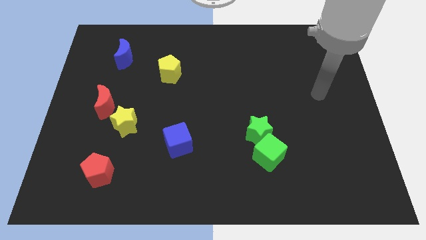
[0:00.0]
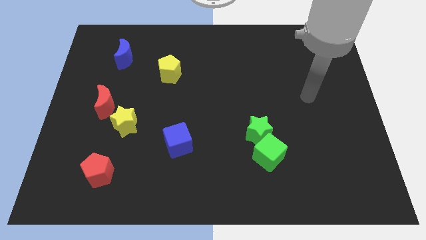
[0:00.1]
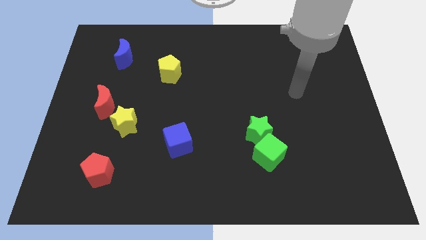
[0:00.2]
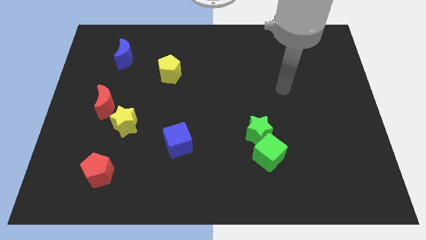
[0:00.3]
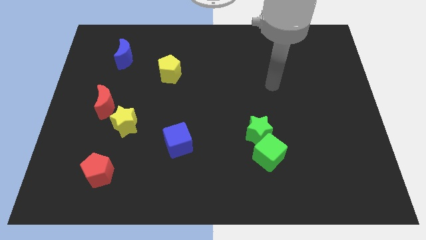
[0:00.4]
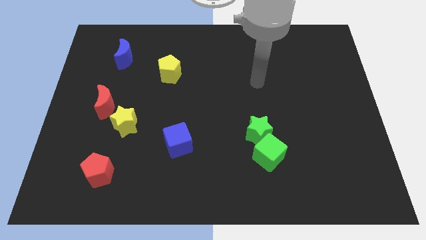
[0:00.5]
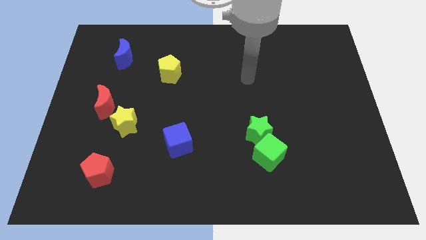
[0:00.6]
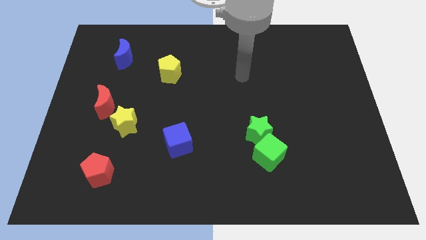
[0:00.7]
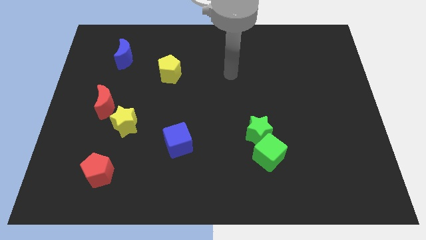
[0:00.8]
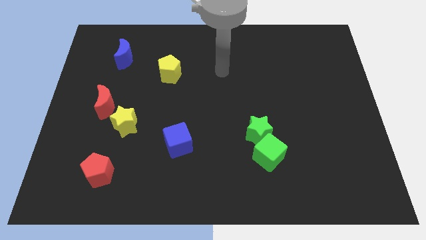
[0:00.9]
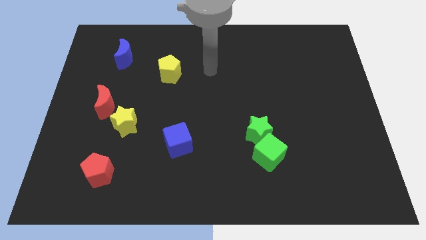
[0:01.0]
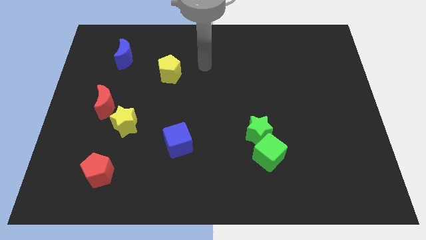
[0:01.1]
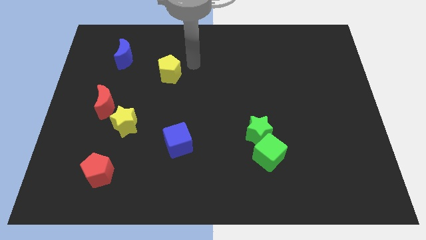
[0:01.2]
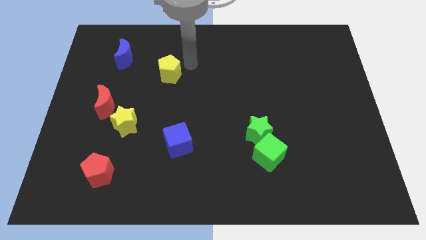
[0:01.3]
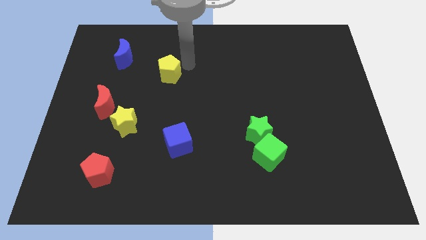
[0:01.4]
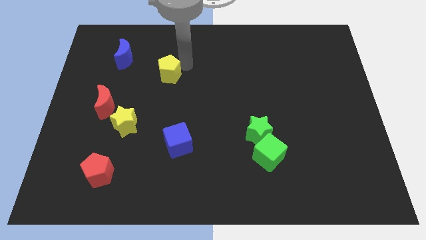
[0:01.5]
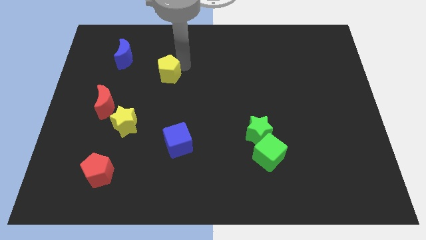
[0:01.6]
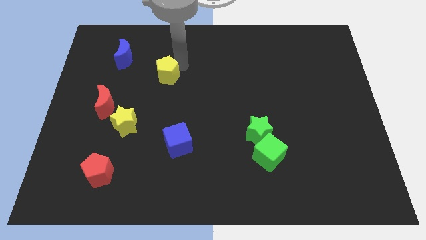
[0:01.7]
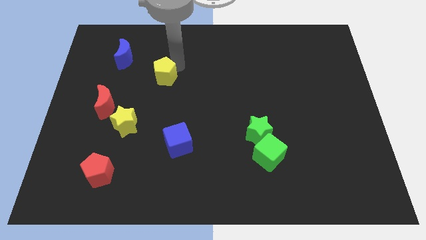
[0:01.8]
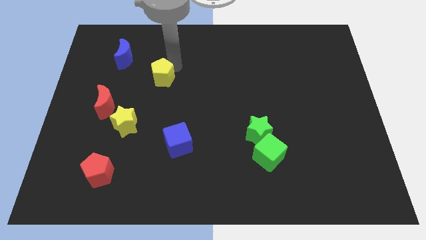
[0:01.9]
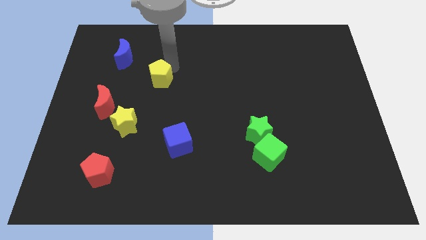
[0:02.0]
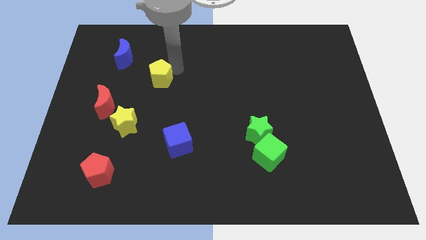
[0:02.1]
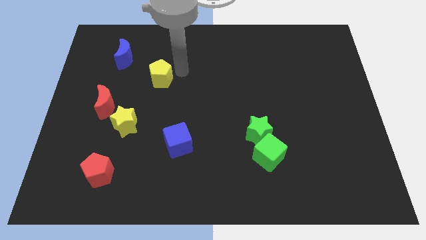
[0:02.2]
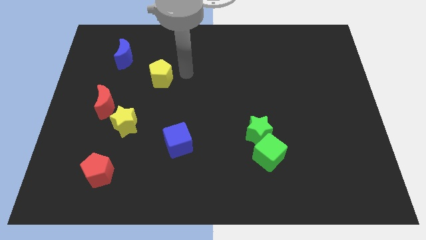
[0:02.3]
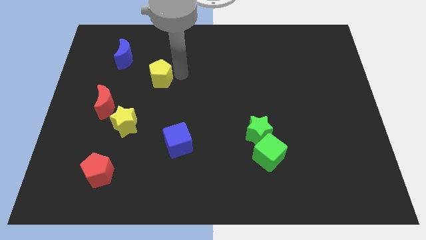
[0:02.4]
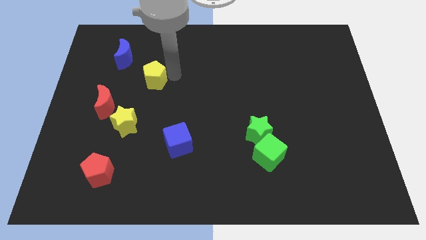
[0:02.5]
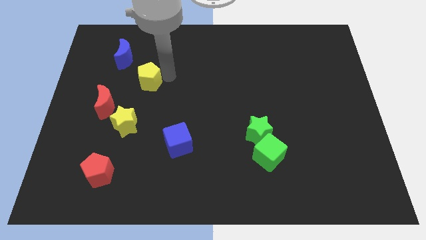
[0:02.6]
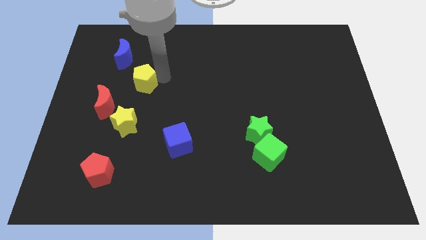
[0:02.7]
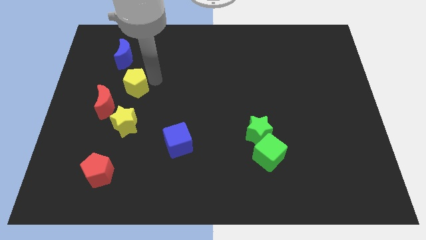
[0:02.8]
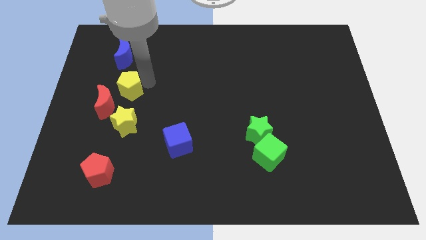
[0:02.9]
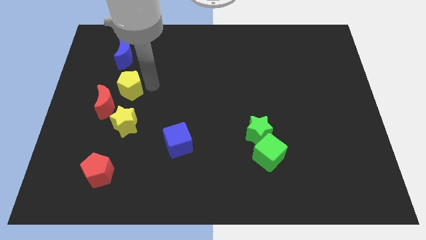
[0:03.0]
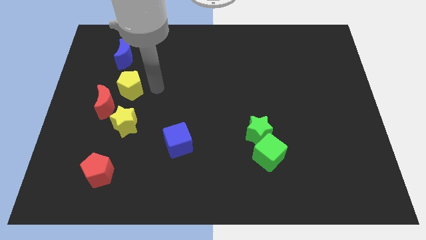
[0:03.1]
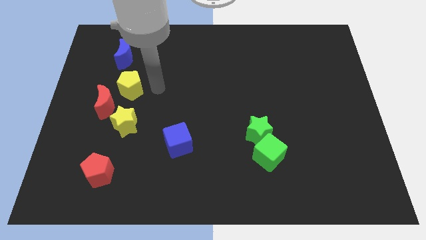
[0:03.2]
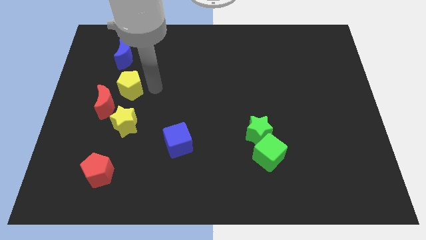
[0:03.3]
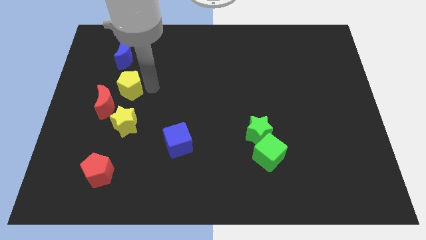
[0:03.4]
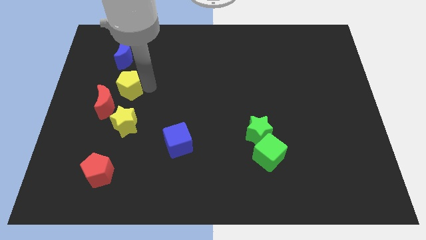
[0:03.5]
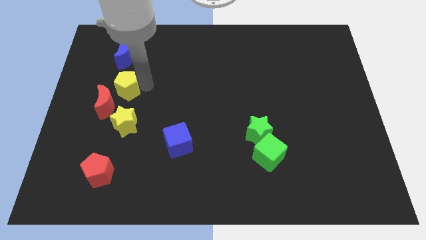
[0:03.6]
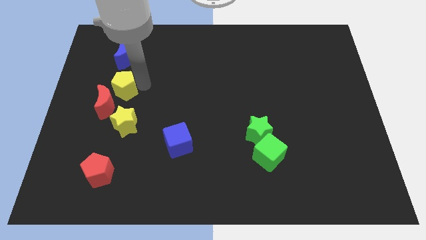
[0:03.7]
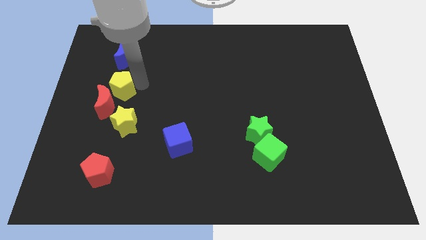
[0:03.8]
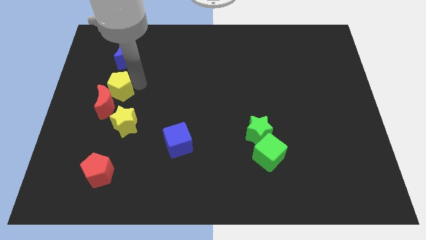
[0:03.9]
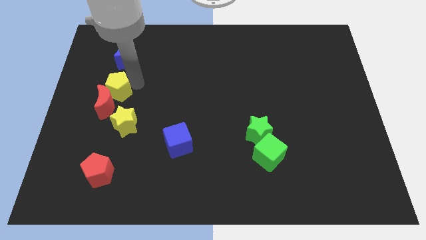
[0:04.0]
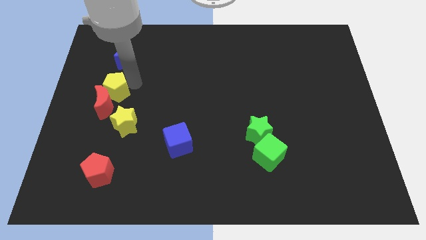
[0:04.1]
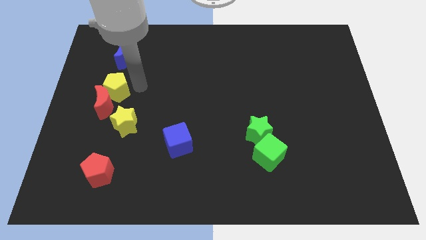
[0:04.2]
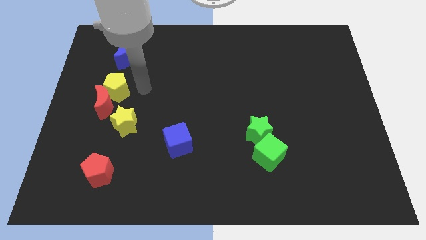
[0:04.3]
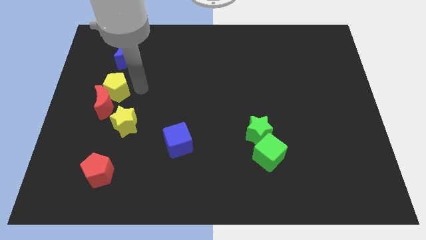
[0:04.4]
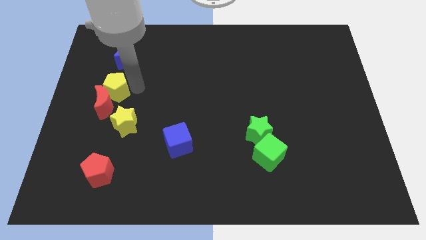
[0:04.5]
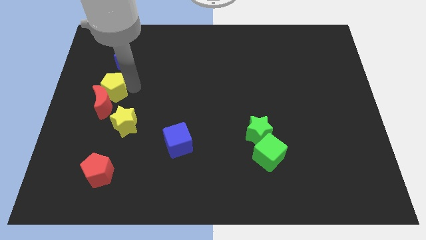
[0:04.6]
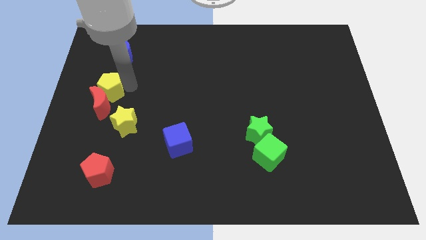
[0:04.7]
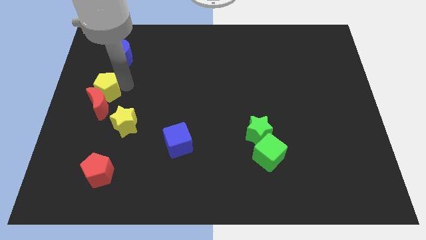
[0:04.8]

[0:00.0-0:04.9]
move the yellow pentagon to the left side

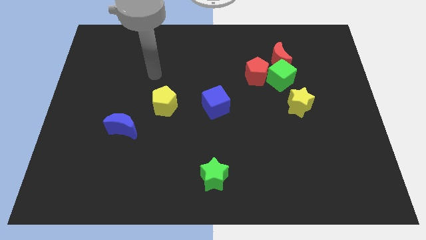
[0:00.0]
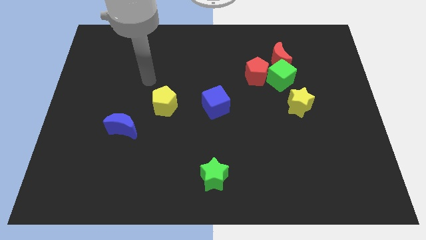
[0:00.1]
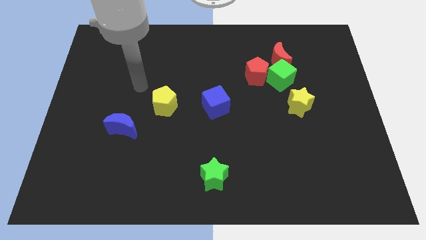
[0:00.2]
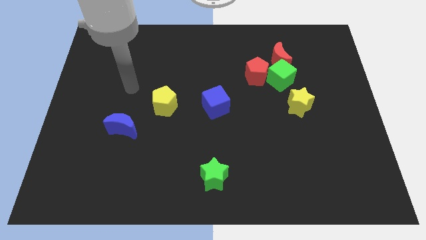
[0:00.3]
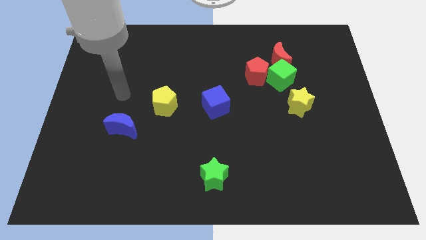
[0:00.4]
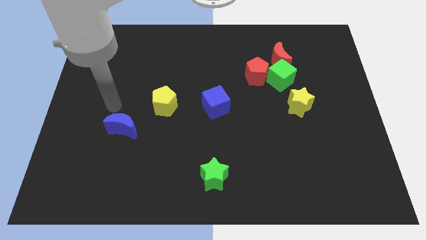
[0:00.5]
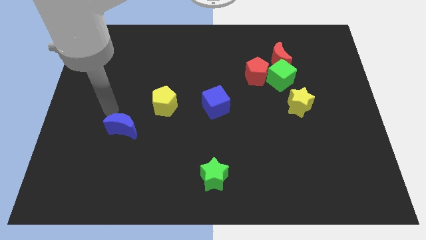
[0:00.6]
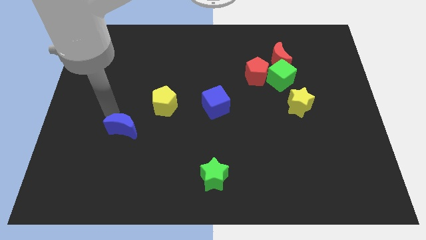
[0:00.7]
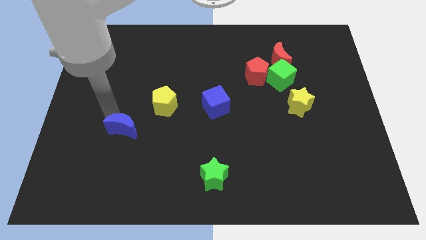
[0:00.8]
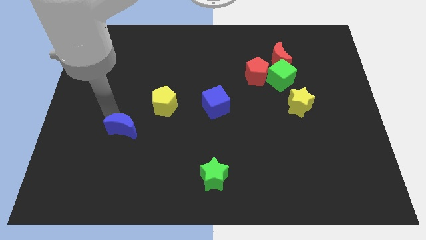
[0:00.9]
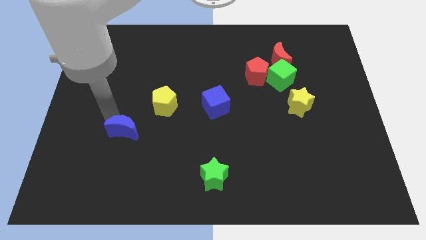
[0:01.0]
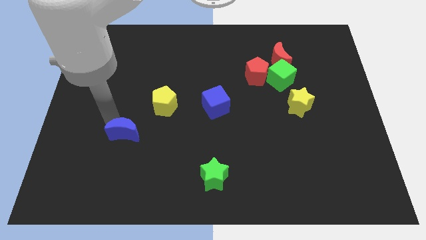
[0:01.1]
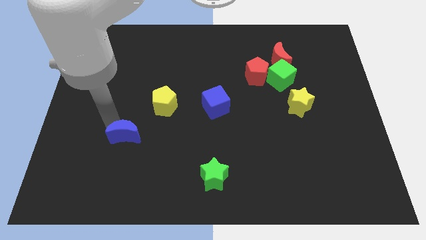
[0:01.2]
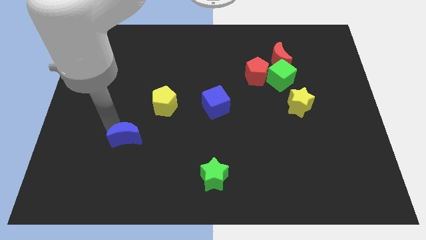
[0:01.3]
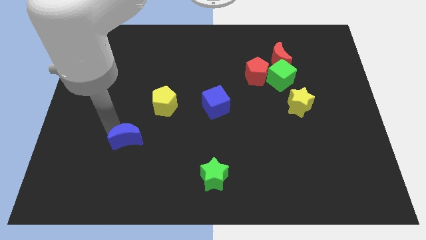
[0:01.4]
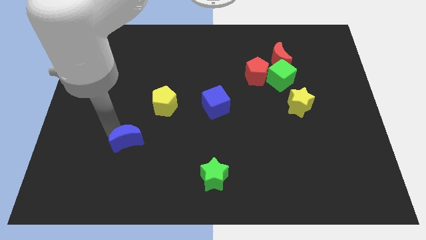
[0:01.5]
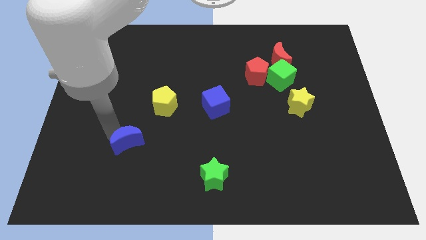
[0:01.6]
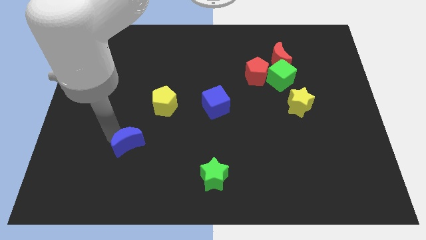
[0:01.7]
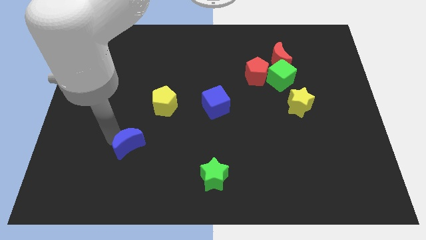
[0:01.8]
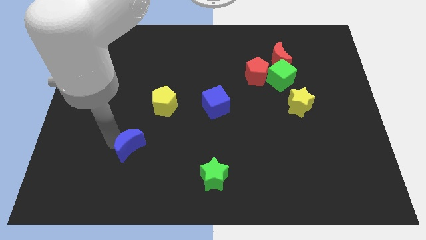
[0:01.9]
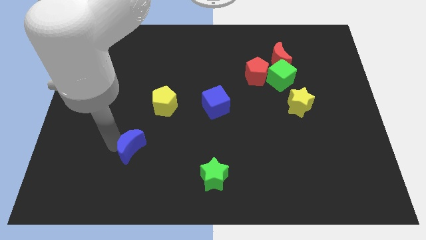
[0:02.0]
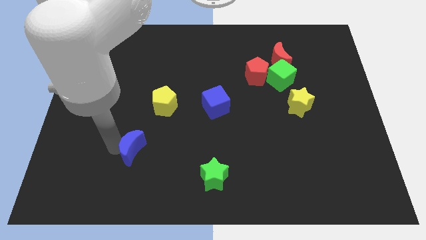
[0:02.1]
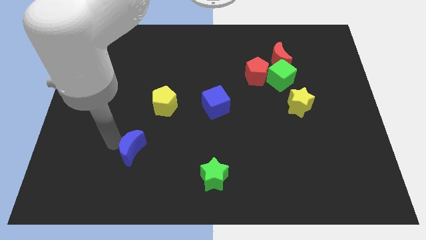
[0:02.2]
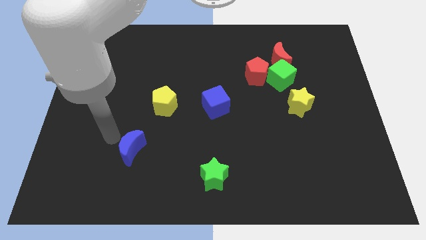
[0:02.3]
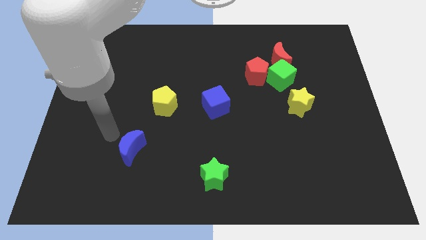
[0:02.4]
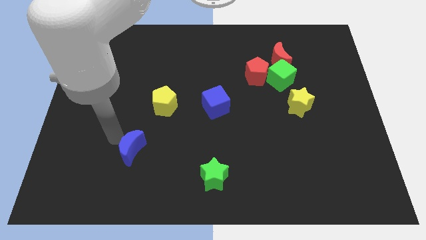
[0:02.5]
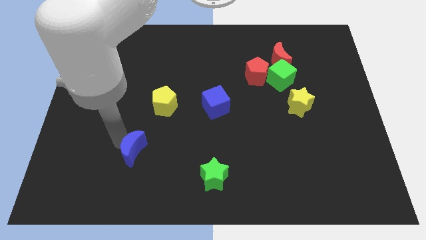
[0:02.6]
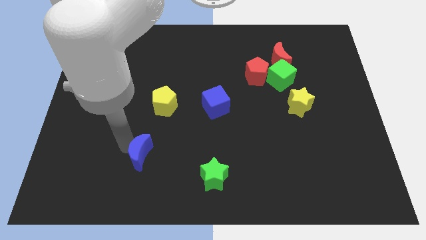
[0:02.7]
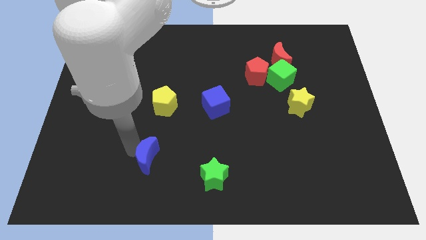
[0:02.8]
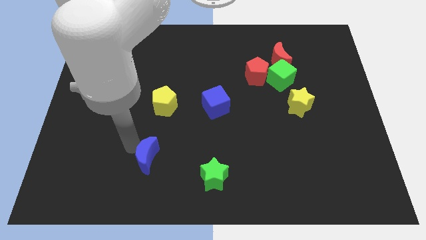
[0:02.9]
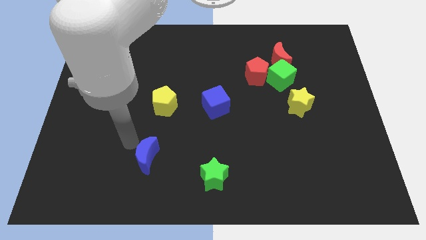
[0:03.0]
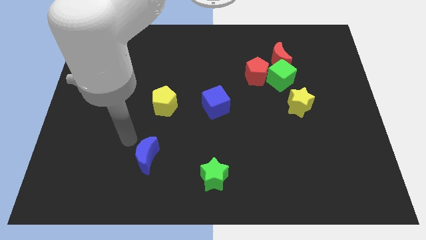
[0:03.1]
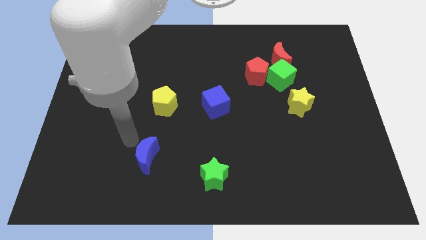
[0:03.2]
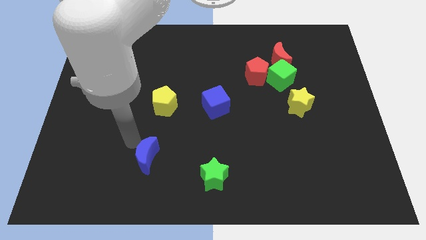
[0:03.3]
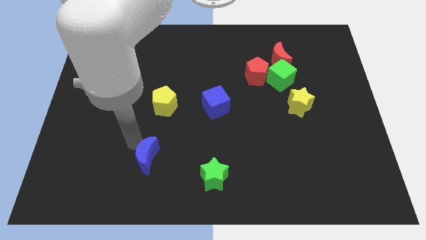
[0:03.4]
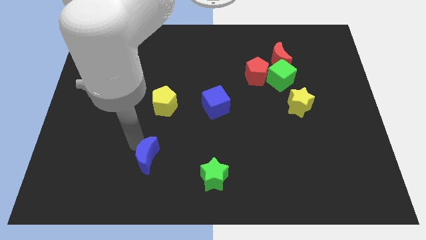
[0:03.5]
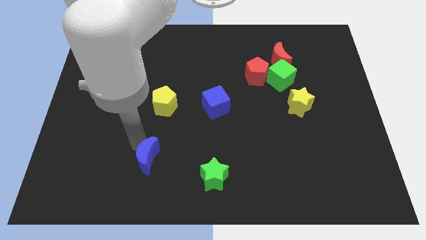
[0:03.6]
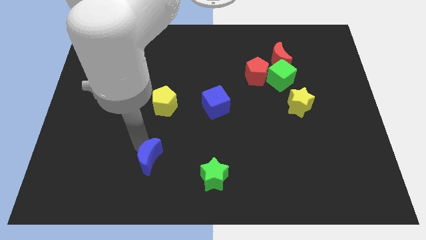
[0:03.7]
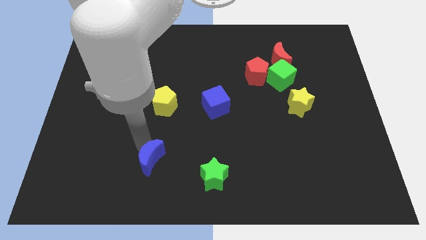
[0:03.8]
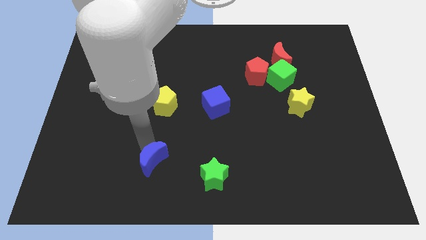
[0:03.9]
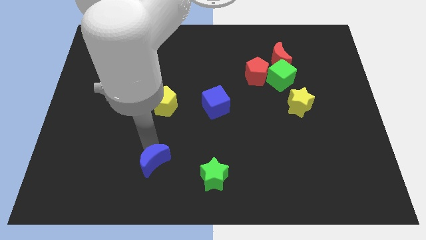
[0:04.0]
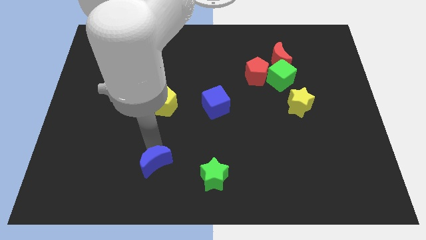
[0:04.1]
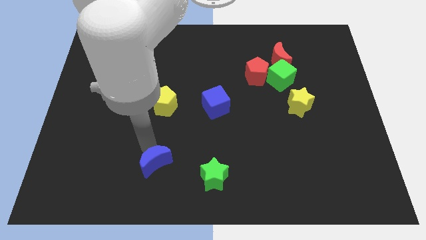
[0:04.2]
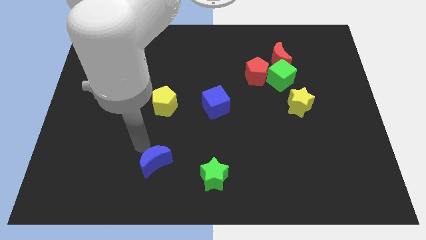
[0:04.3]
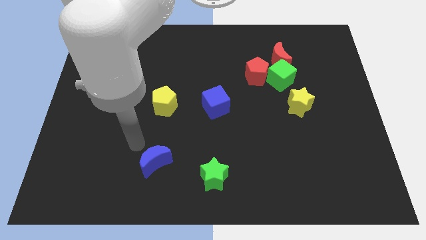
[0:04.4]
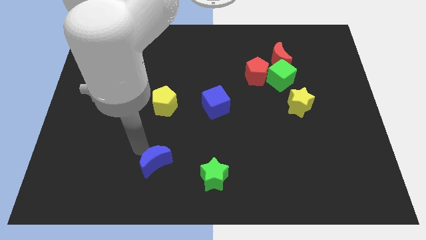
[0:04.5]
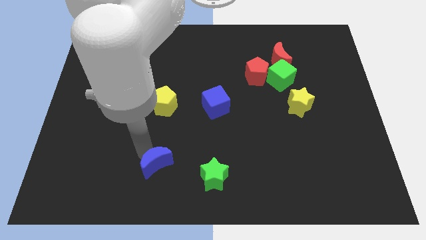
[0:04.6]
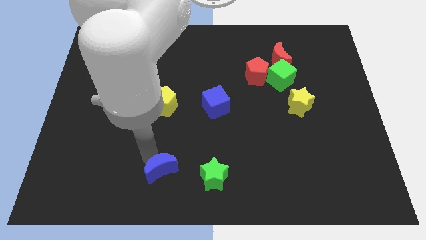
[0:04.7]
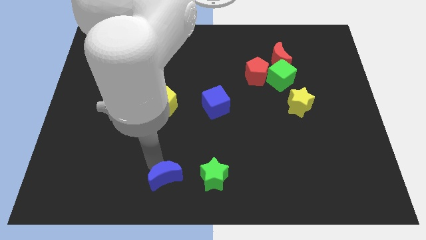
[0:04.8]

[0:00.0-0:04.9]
move the blue moon to the bottom side
